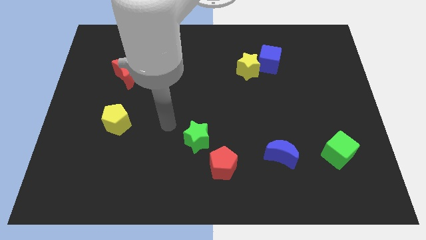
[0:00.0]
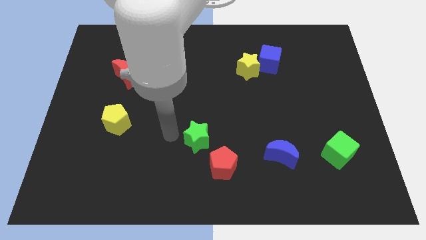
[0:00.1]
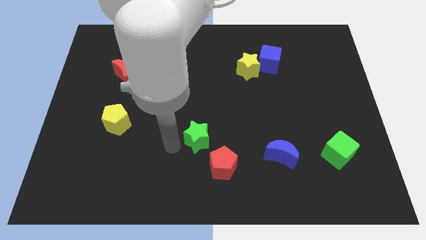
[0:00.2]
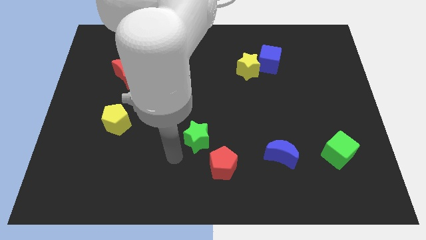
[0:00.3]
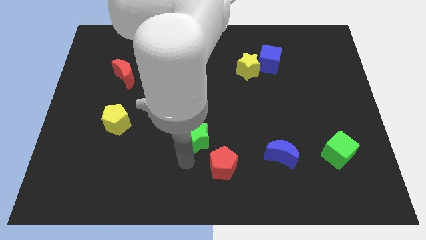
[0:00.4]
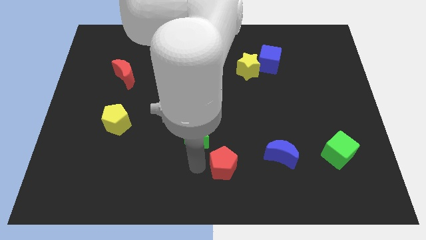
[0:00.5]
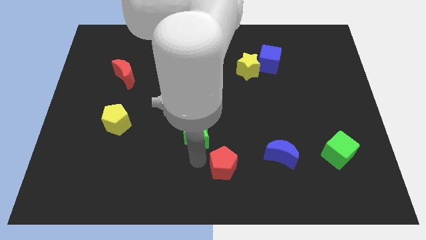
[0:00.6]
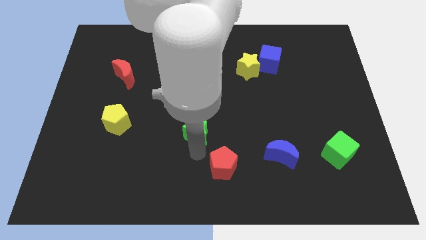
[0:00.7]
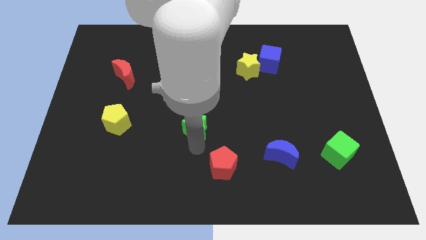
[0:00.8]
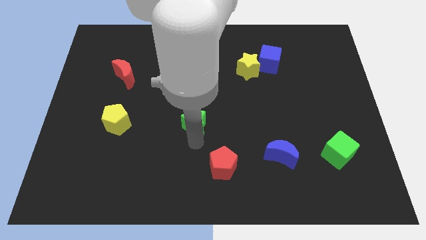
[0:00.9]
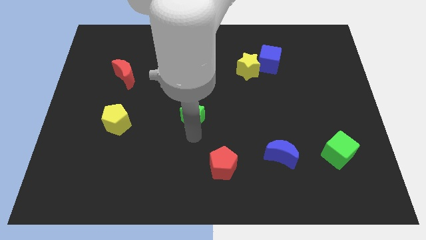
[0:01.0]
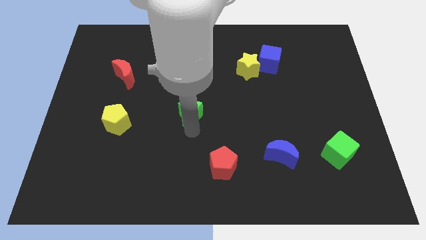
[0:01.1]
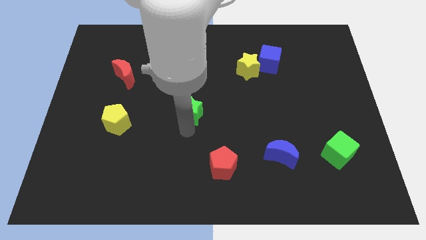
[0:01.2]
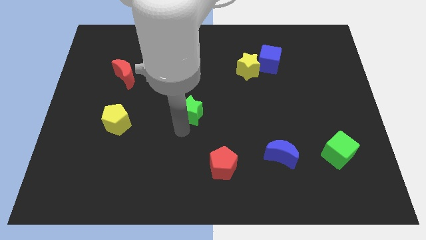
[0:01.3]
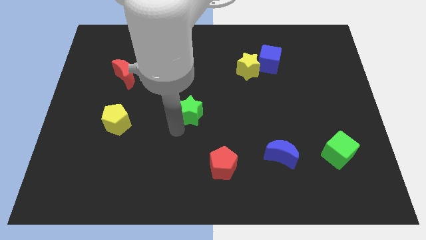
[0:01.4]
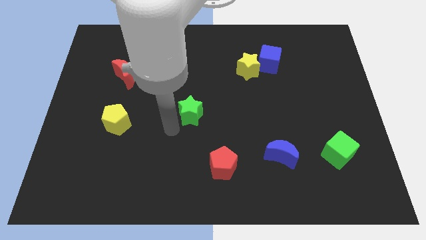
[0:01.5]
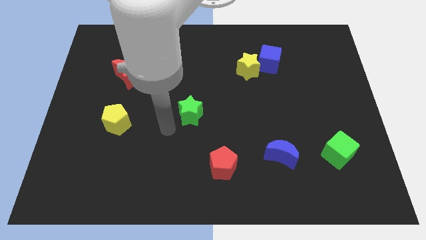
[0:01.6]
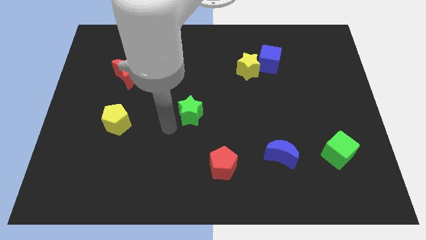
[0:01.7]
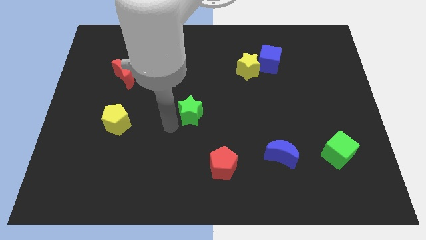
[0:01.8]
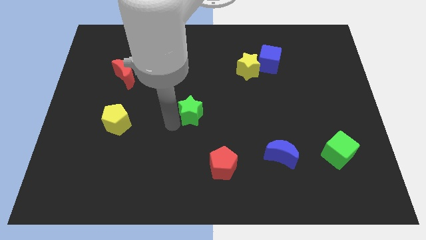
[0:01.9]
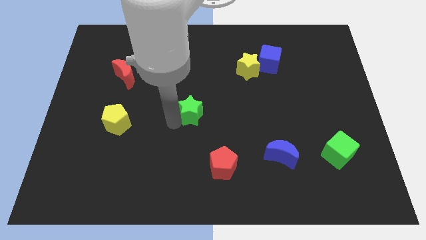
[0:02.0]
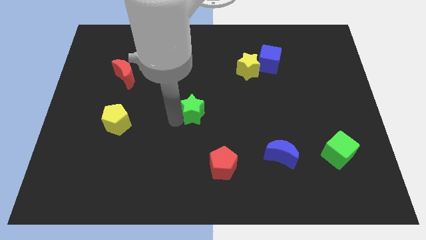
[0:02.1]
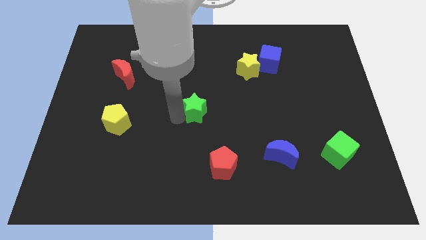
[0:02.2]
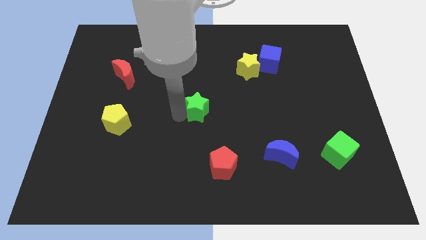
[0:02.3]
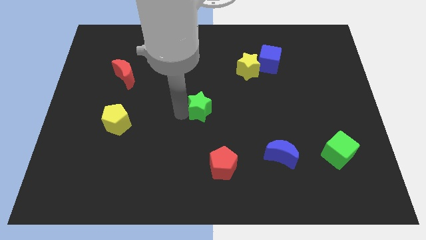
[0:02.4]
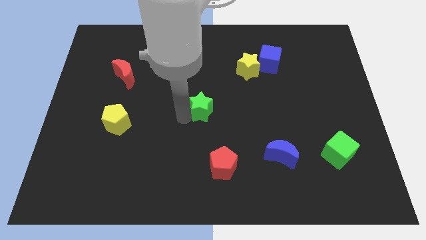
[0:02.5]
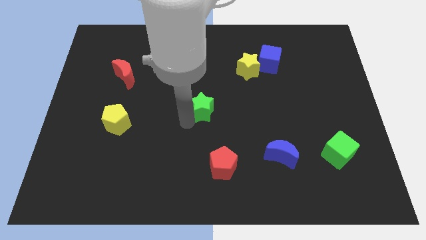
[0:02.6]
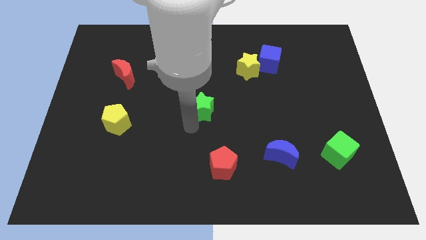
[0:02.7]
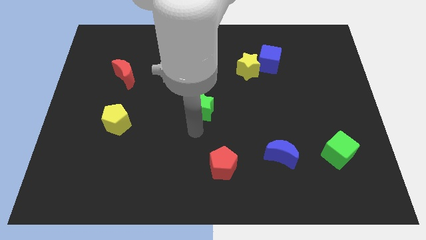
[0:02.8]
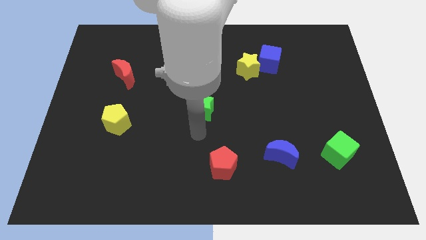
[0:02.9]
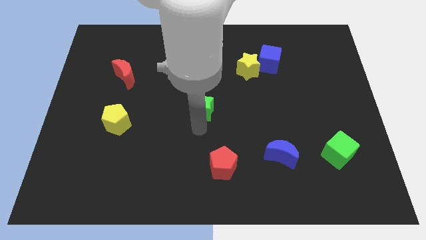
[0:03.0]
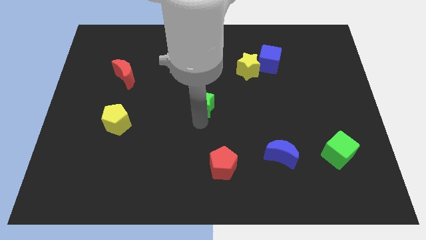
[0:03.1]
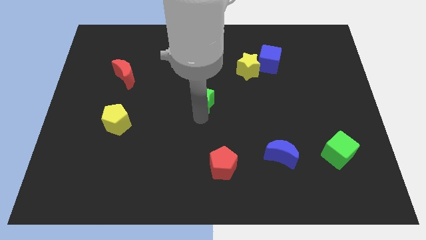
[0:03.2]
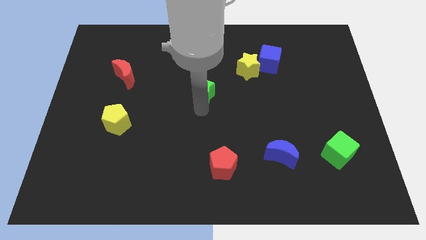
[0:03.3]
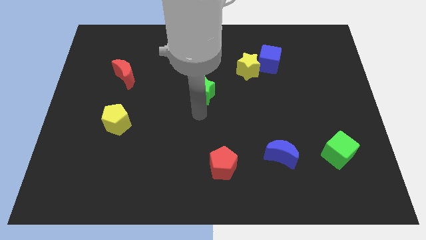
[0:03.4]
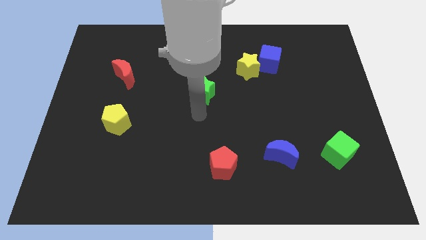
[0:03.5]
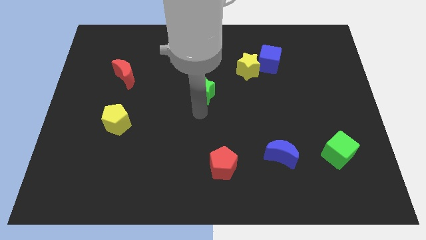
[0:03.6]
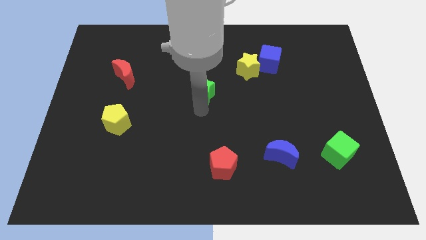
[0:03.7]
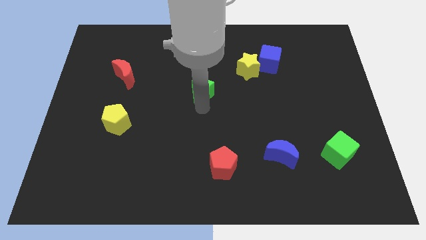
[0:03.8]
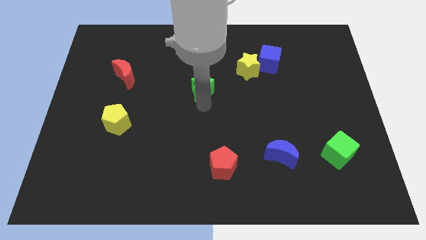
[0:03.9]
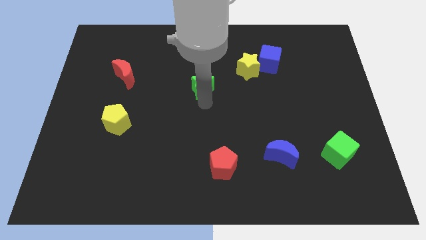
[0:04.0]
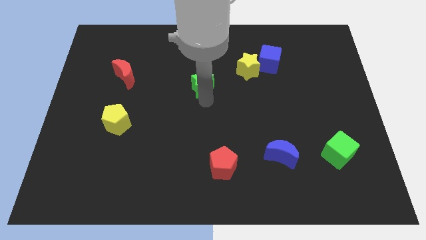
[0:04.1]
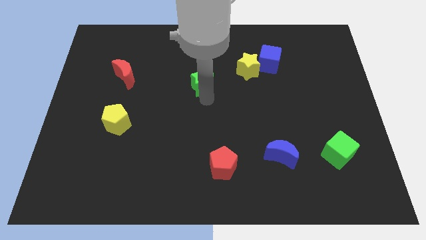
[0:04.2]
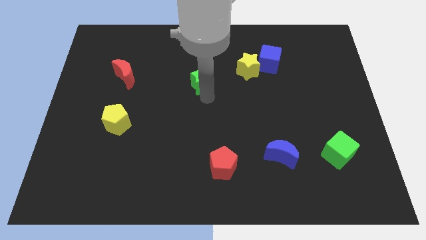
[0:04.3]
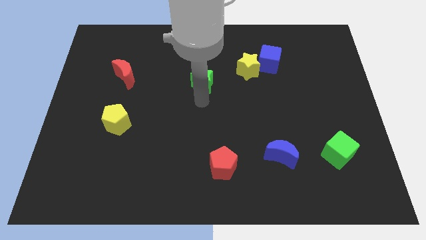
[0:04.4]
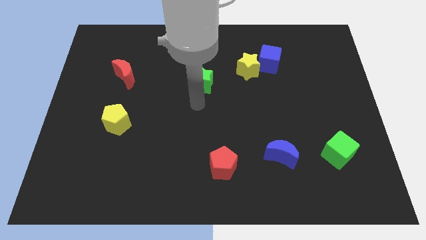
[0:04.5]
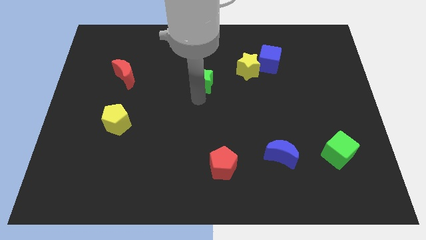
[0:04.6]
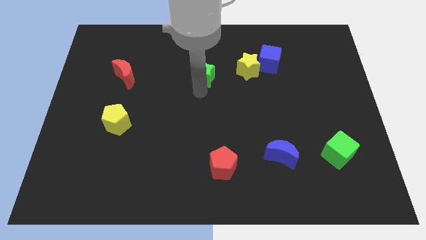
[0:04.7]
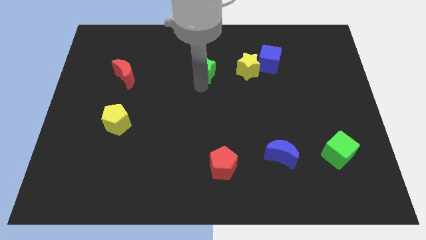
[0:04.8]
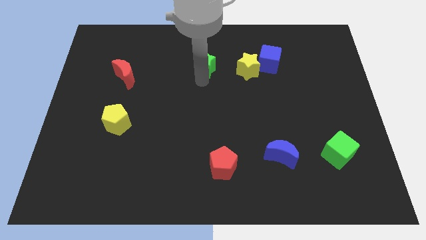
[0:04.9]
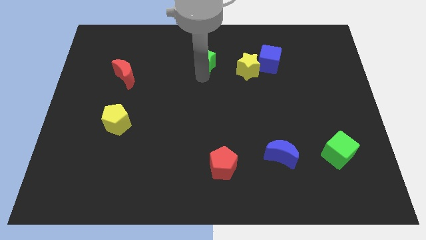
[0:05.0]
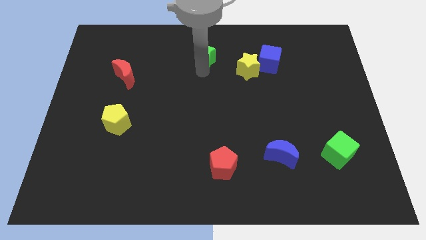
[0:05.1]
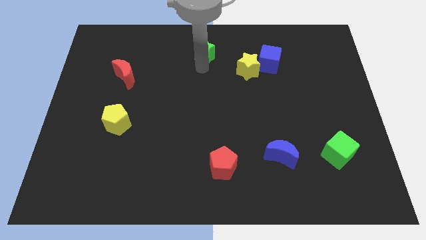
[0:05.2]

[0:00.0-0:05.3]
move the green star to the towards your base

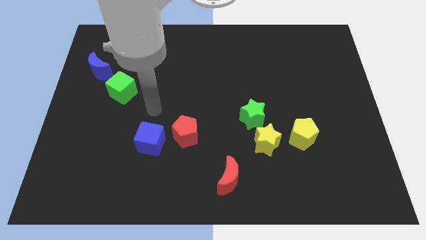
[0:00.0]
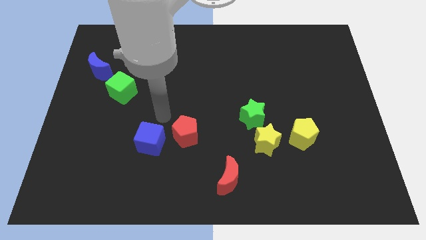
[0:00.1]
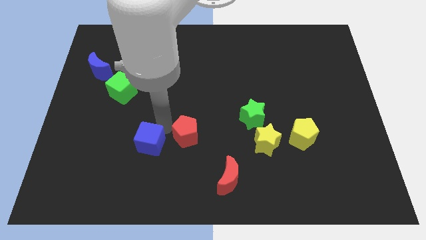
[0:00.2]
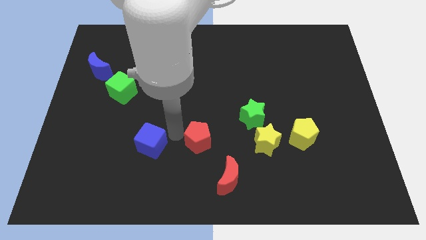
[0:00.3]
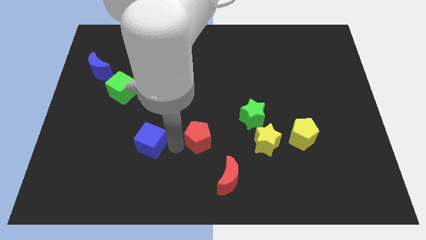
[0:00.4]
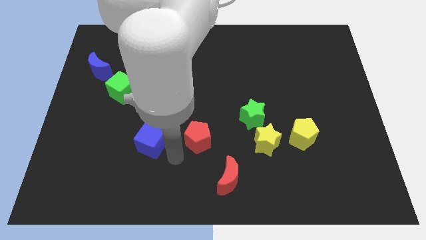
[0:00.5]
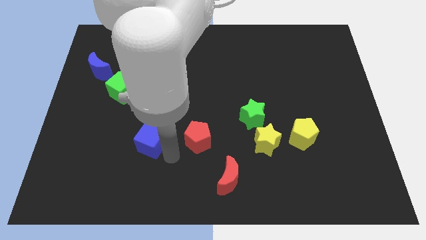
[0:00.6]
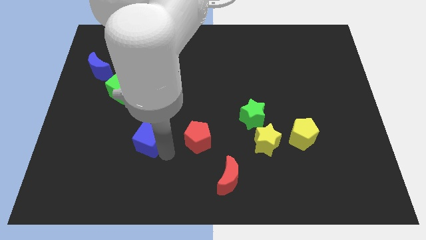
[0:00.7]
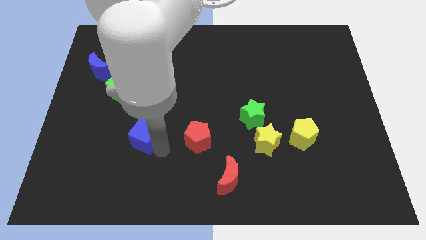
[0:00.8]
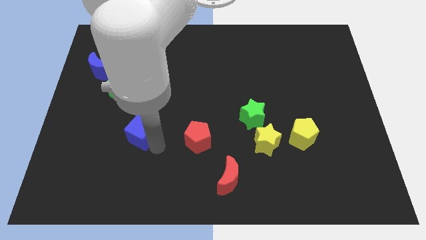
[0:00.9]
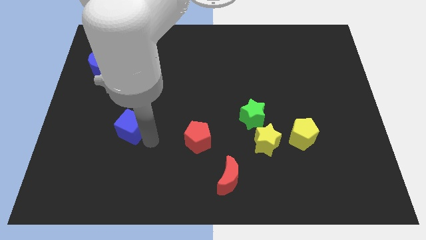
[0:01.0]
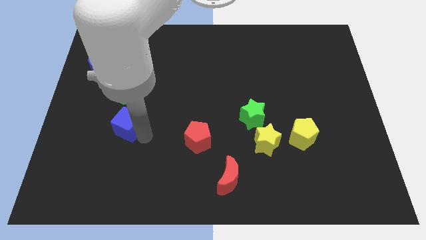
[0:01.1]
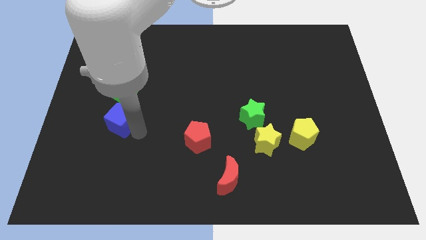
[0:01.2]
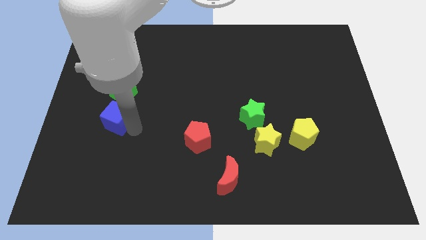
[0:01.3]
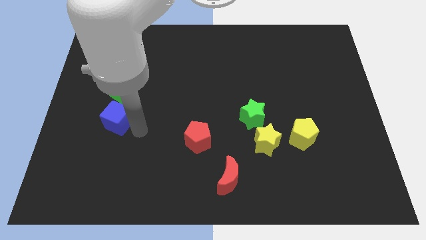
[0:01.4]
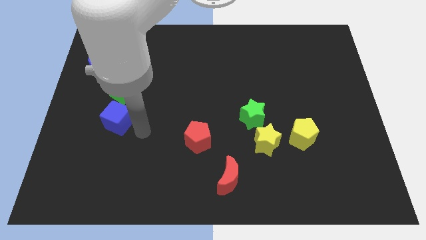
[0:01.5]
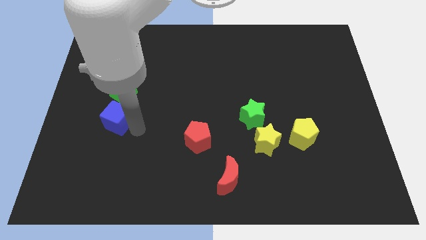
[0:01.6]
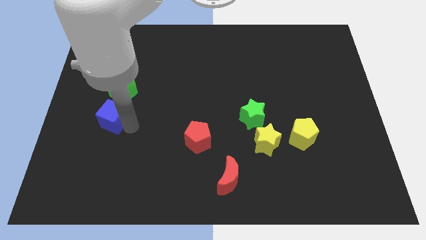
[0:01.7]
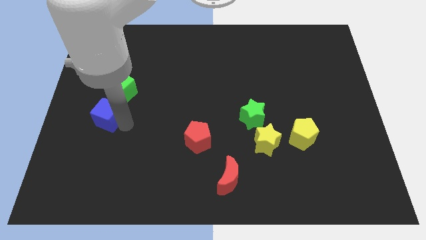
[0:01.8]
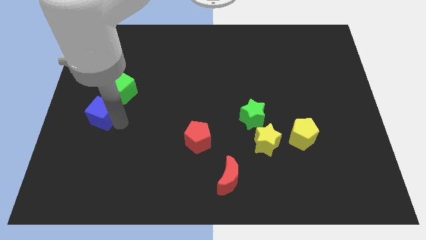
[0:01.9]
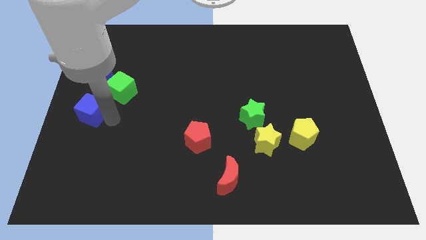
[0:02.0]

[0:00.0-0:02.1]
slide the blue cube to the left side
